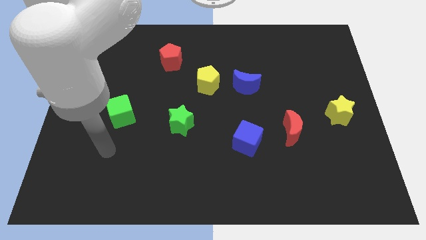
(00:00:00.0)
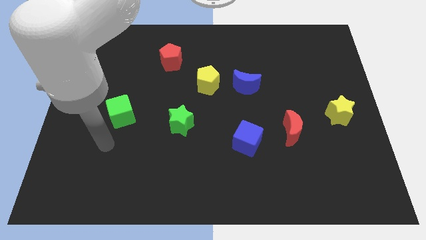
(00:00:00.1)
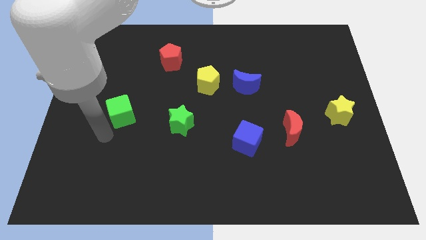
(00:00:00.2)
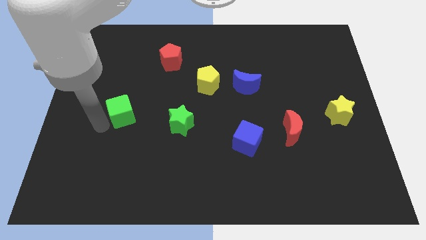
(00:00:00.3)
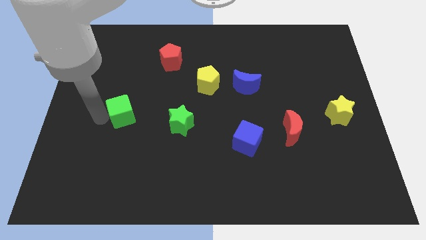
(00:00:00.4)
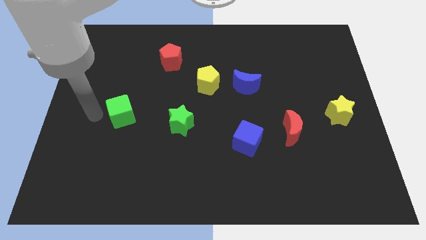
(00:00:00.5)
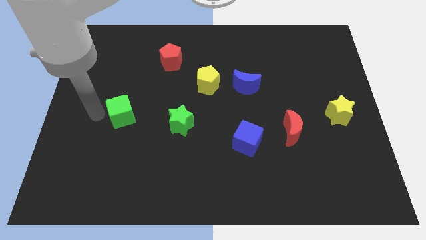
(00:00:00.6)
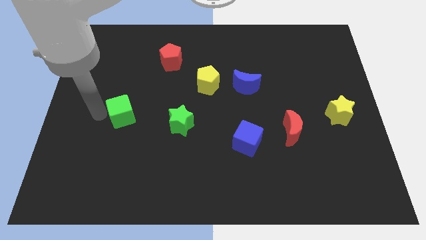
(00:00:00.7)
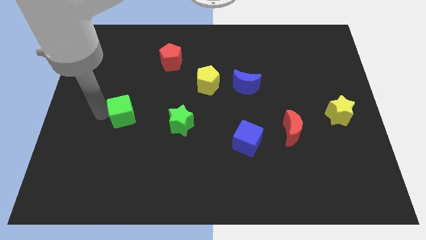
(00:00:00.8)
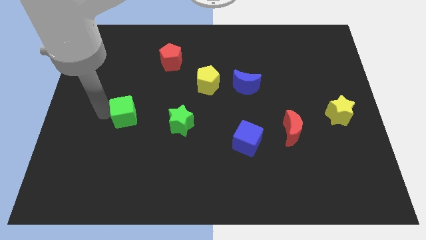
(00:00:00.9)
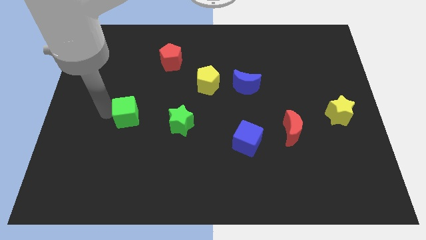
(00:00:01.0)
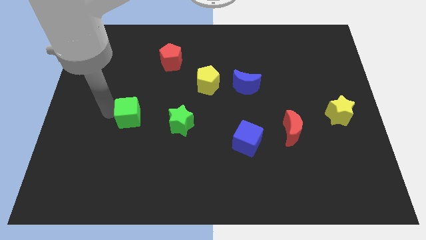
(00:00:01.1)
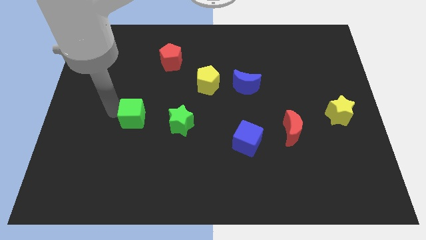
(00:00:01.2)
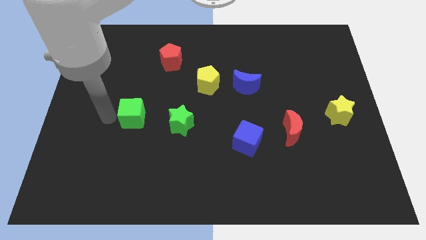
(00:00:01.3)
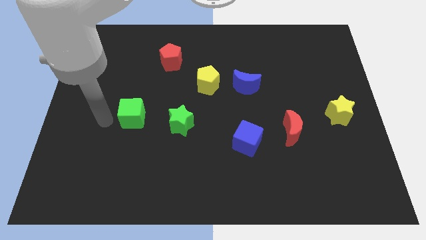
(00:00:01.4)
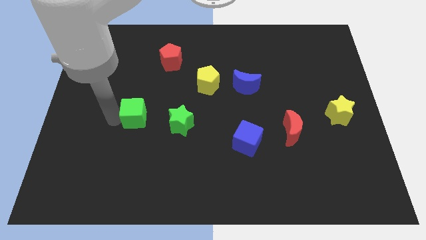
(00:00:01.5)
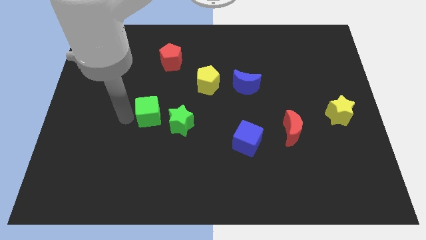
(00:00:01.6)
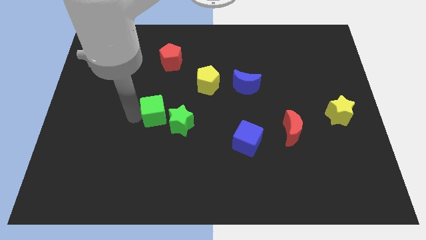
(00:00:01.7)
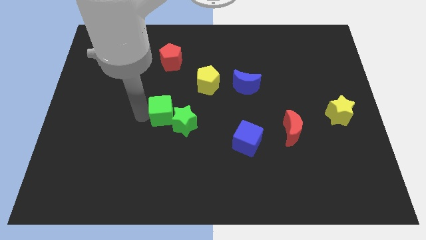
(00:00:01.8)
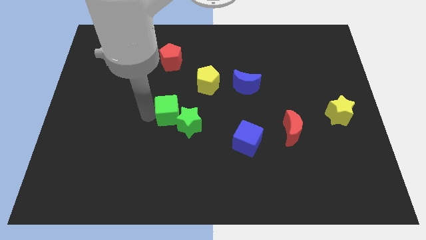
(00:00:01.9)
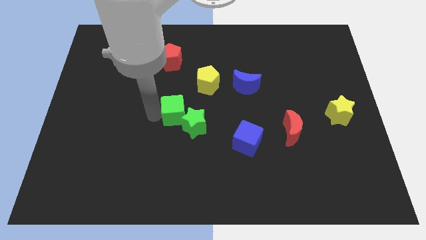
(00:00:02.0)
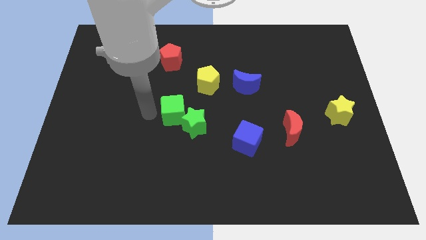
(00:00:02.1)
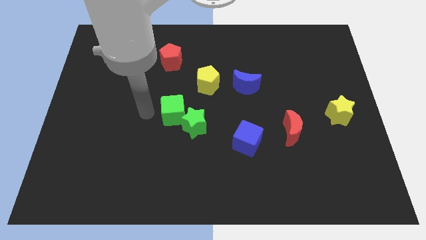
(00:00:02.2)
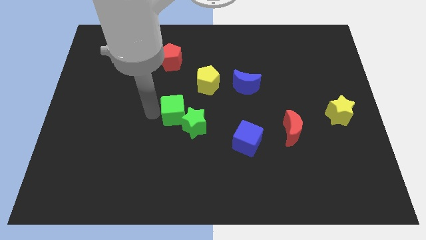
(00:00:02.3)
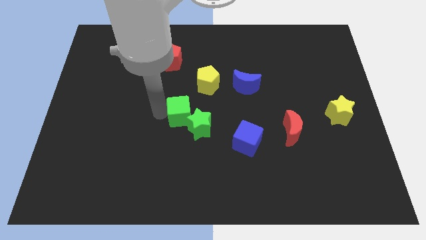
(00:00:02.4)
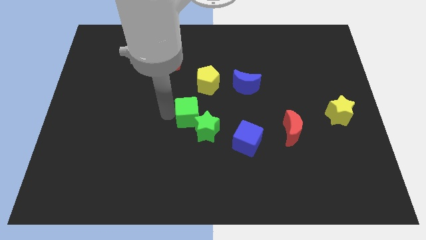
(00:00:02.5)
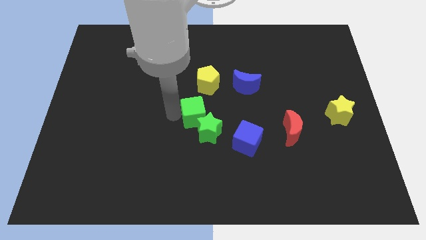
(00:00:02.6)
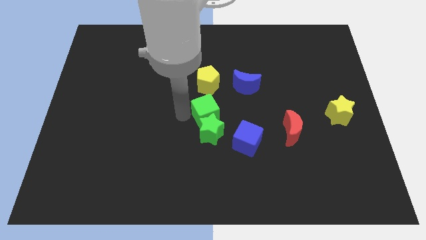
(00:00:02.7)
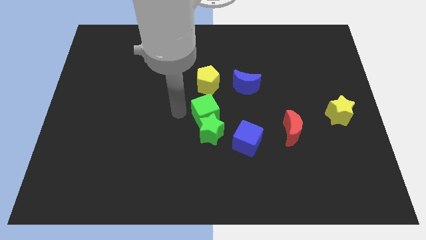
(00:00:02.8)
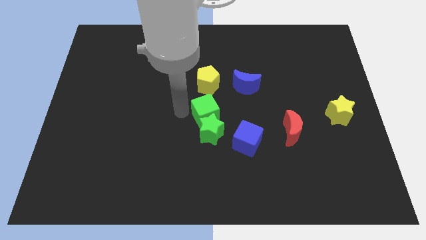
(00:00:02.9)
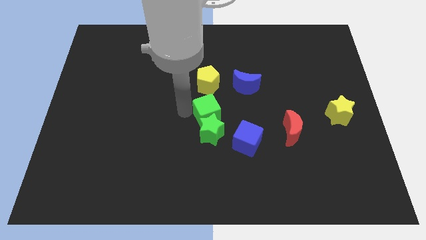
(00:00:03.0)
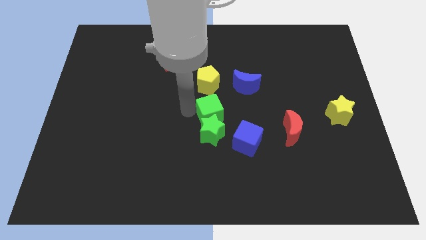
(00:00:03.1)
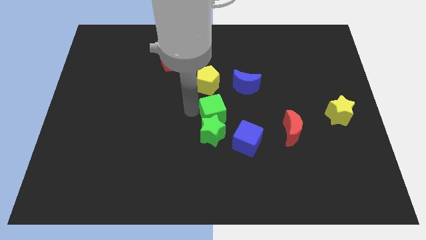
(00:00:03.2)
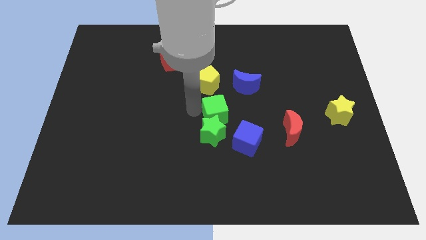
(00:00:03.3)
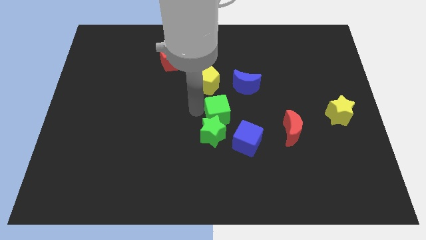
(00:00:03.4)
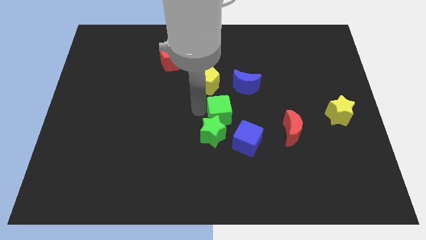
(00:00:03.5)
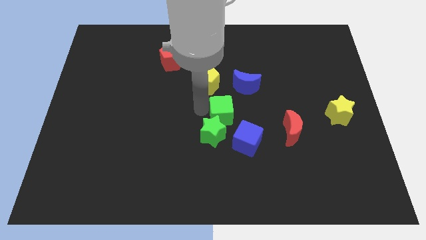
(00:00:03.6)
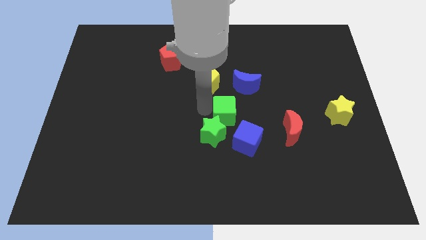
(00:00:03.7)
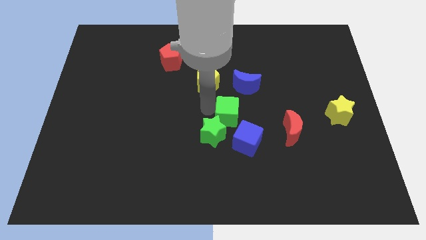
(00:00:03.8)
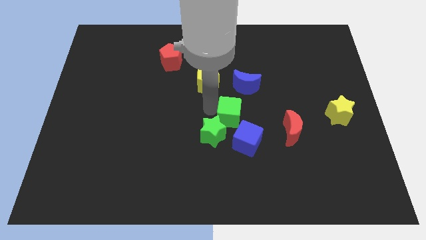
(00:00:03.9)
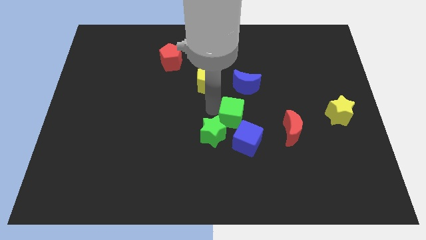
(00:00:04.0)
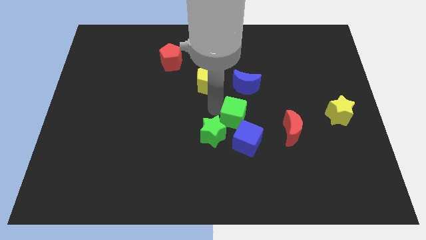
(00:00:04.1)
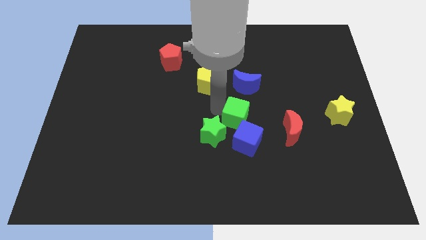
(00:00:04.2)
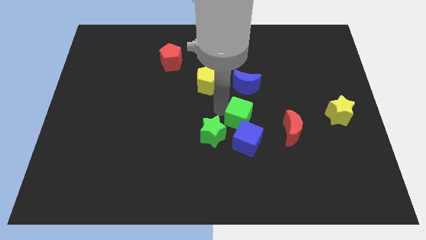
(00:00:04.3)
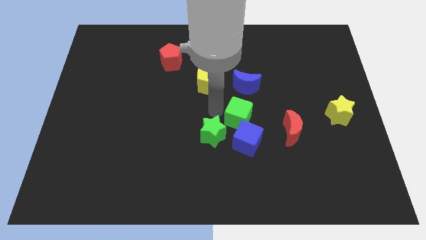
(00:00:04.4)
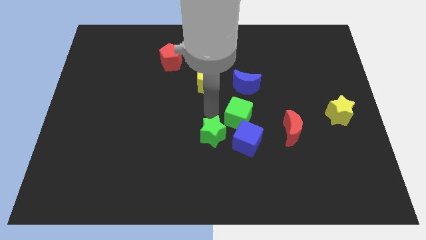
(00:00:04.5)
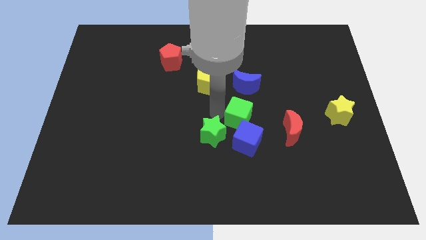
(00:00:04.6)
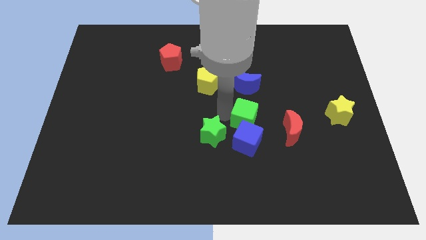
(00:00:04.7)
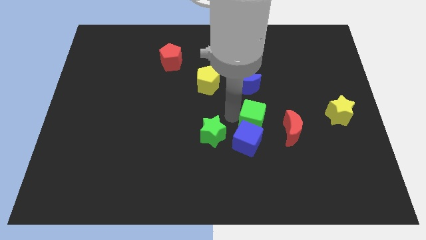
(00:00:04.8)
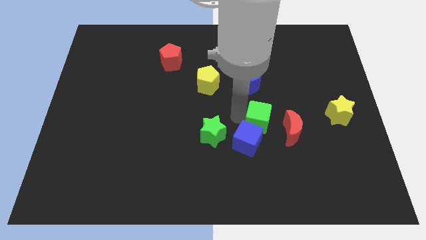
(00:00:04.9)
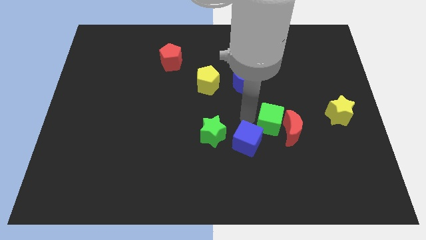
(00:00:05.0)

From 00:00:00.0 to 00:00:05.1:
move the green cube towards the red moon

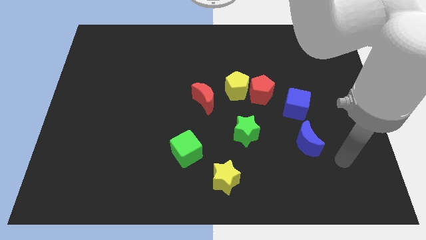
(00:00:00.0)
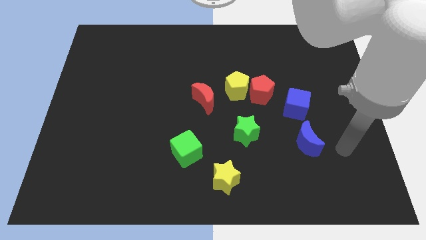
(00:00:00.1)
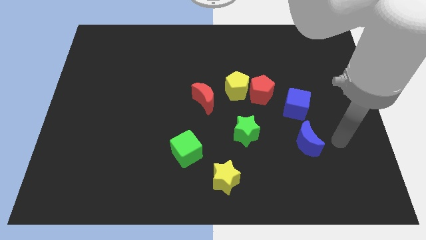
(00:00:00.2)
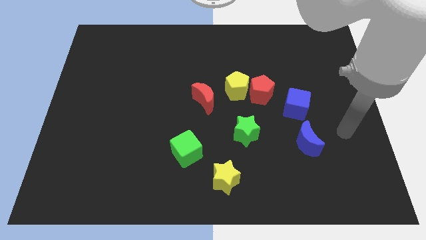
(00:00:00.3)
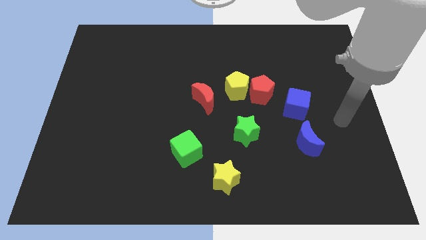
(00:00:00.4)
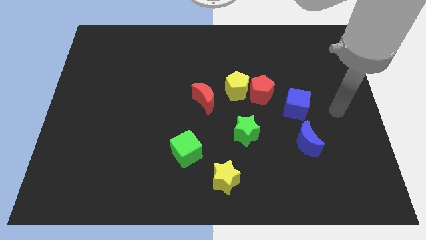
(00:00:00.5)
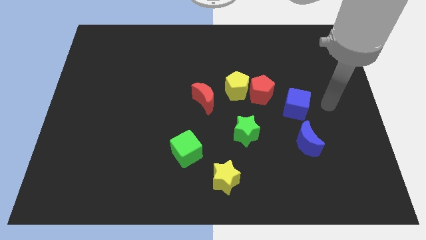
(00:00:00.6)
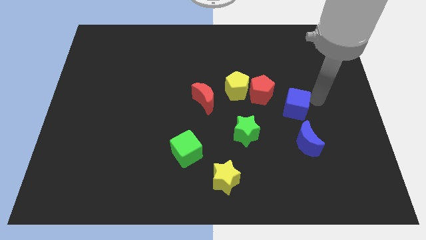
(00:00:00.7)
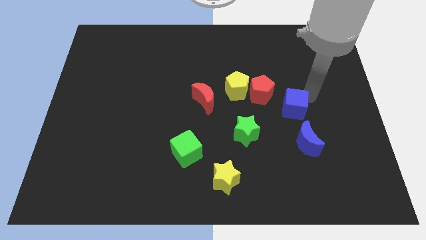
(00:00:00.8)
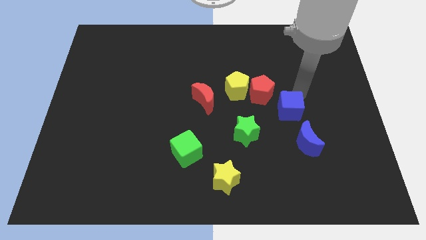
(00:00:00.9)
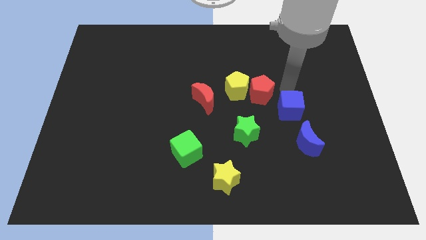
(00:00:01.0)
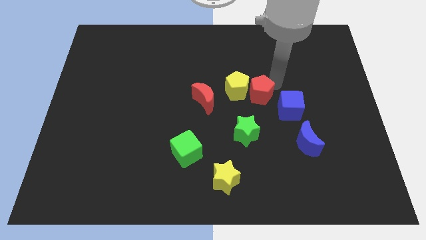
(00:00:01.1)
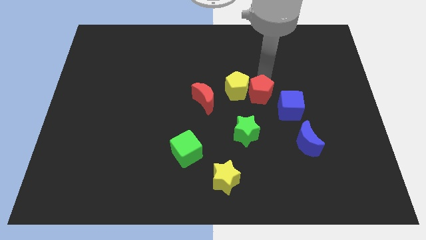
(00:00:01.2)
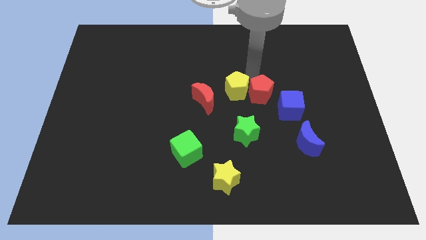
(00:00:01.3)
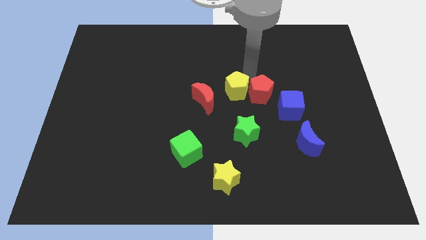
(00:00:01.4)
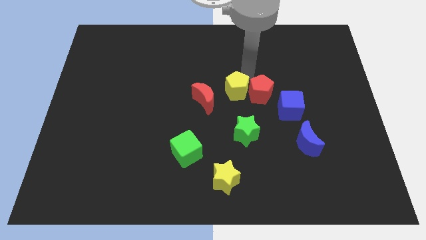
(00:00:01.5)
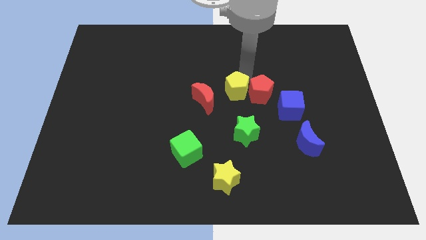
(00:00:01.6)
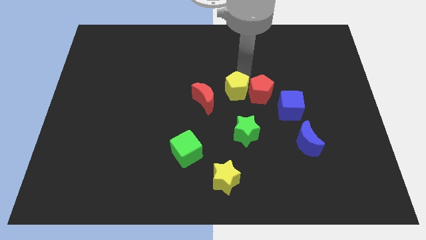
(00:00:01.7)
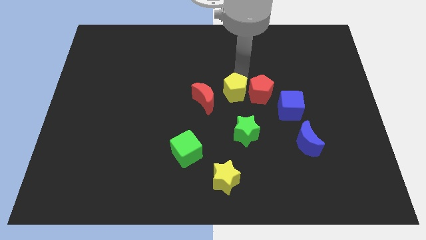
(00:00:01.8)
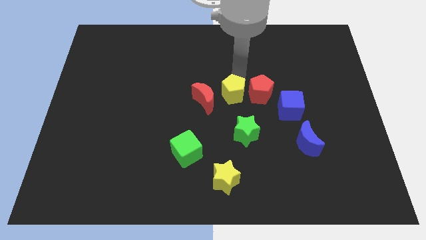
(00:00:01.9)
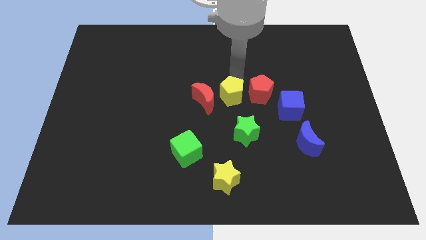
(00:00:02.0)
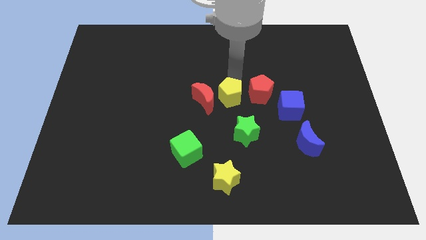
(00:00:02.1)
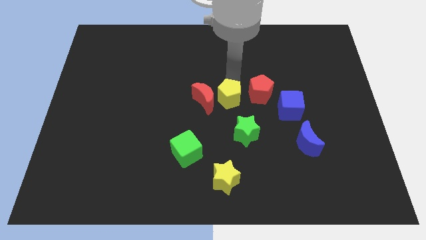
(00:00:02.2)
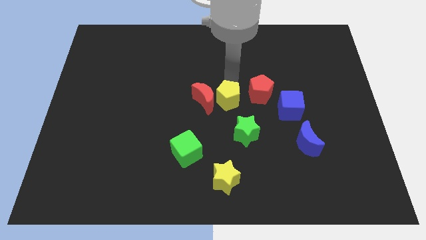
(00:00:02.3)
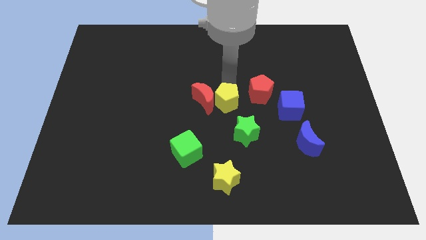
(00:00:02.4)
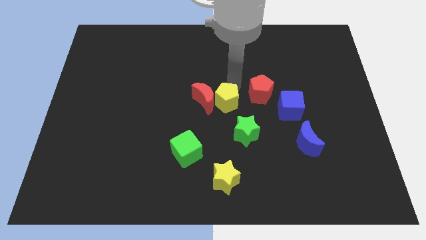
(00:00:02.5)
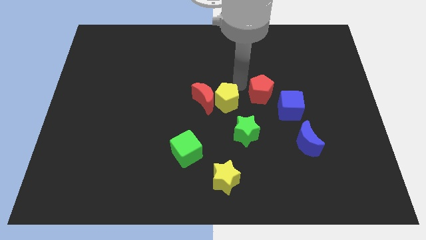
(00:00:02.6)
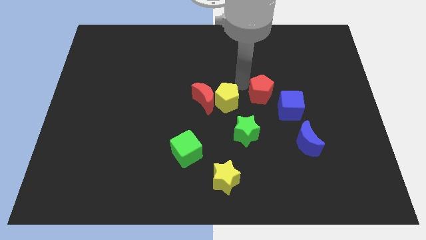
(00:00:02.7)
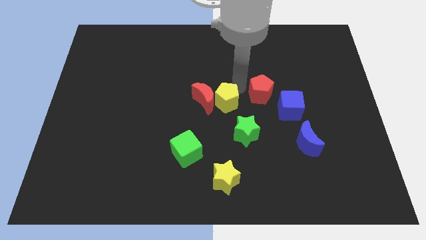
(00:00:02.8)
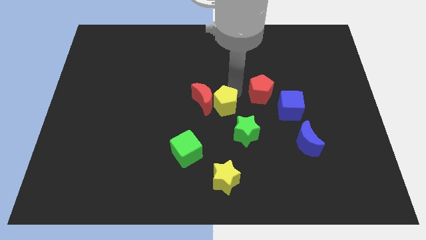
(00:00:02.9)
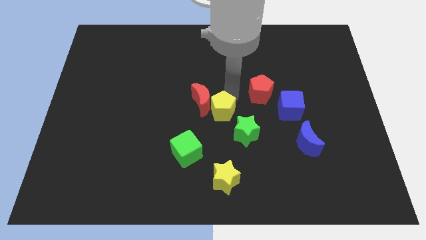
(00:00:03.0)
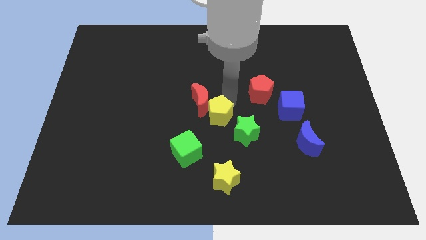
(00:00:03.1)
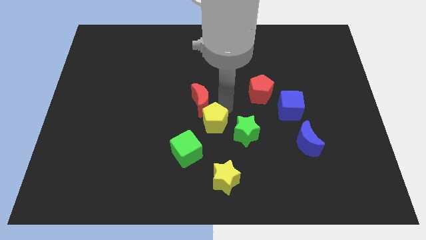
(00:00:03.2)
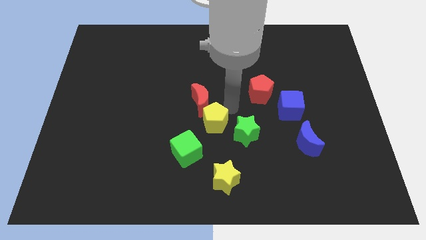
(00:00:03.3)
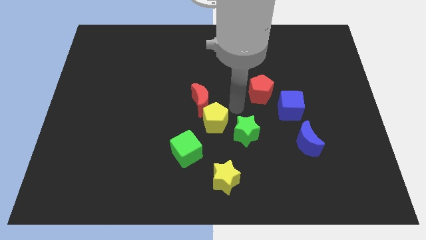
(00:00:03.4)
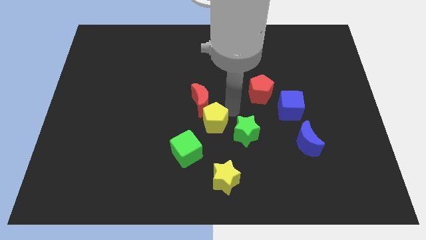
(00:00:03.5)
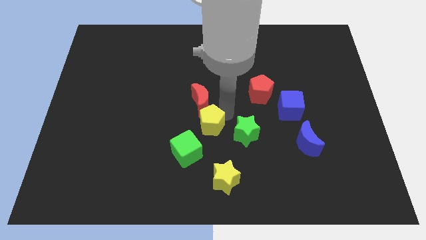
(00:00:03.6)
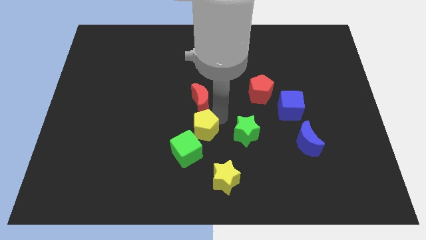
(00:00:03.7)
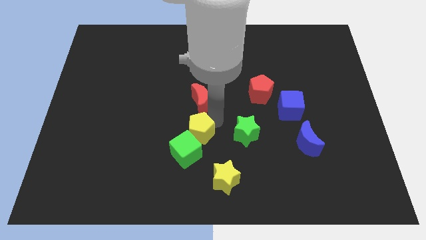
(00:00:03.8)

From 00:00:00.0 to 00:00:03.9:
put the yellow pentagon to the green cube
